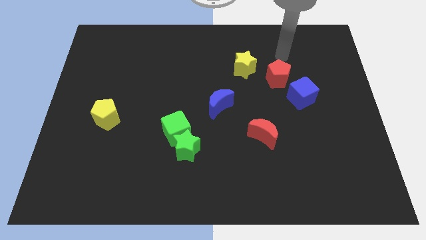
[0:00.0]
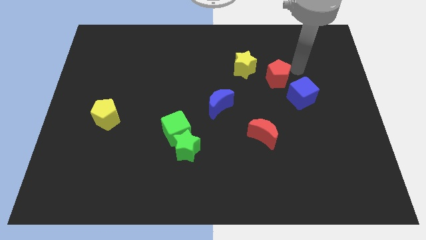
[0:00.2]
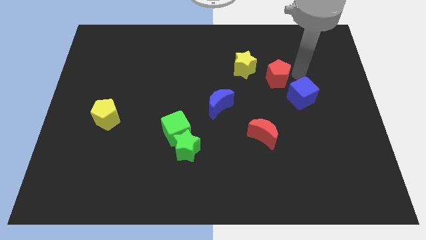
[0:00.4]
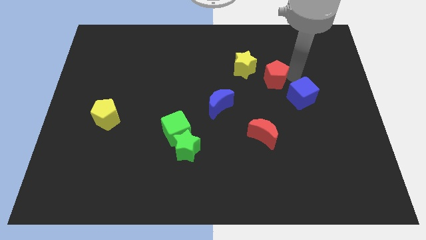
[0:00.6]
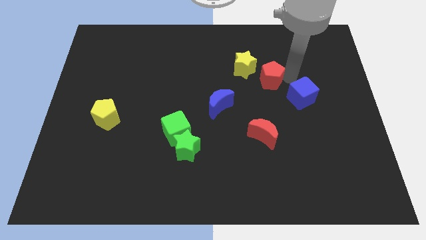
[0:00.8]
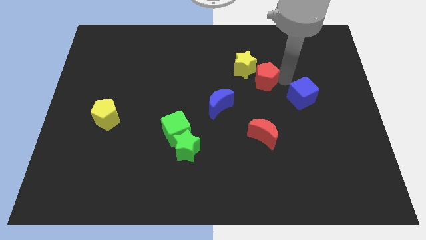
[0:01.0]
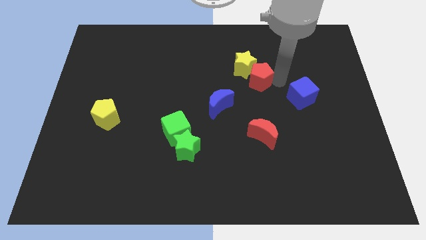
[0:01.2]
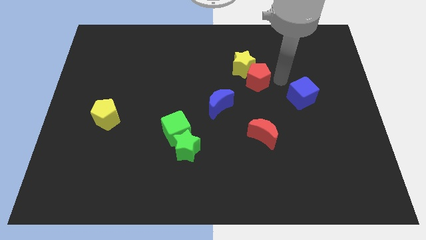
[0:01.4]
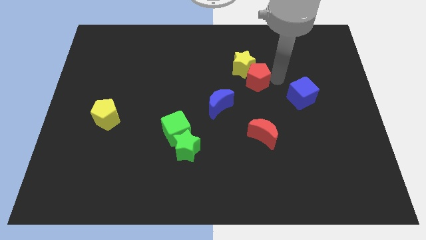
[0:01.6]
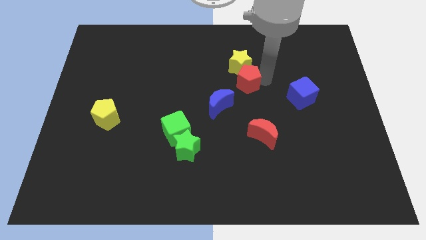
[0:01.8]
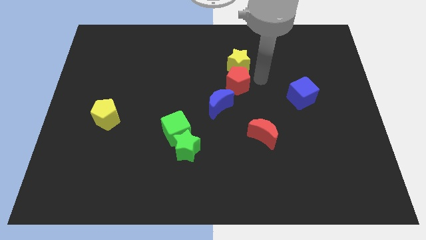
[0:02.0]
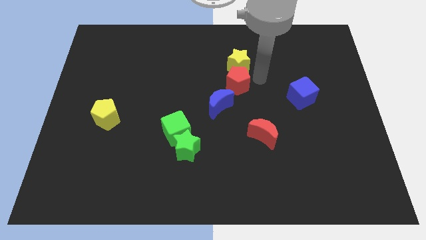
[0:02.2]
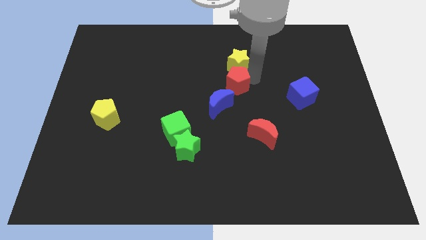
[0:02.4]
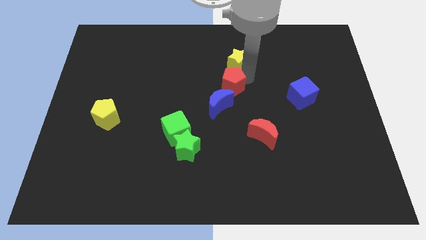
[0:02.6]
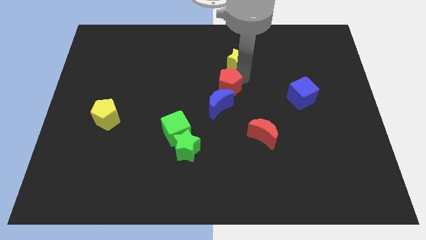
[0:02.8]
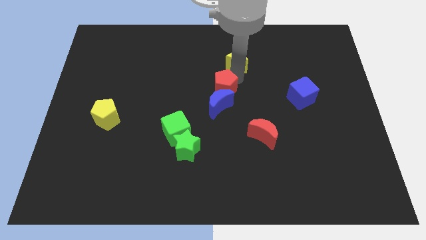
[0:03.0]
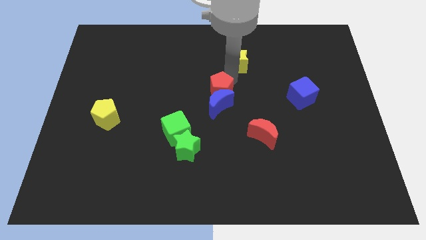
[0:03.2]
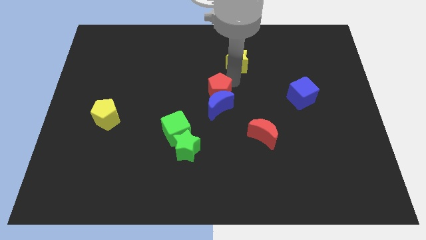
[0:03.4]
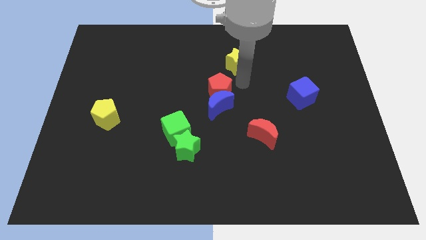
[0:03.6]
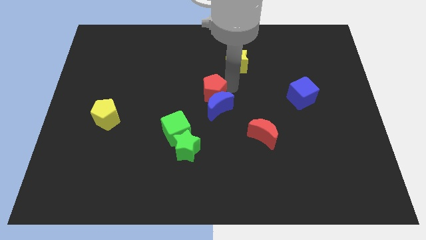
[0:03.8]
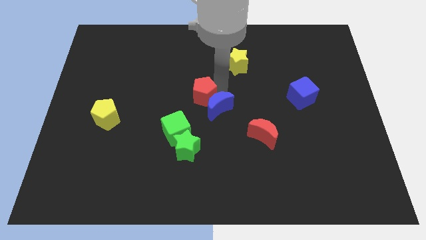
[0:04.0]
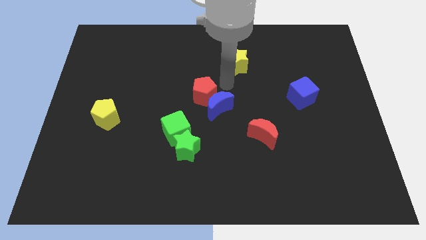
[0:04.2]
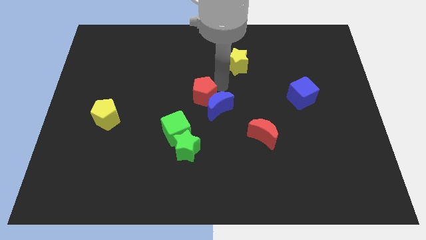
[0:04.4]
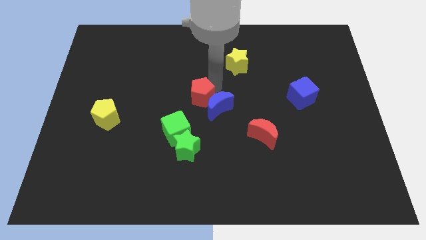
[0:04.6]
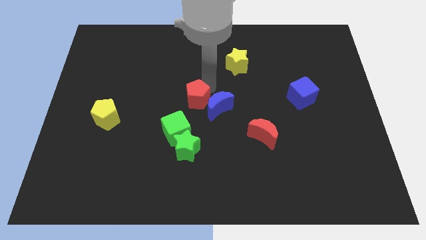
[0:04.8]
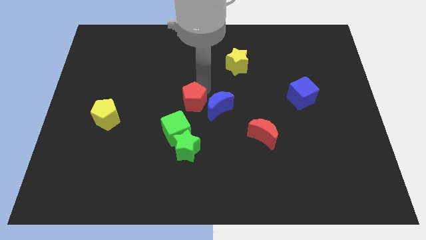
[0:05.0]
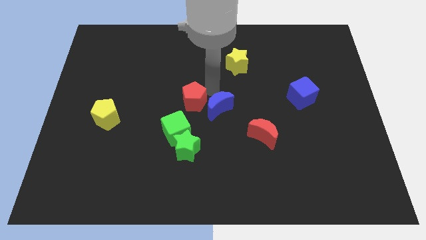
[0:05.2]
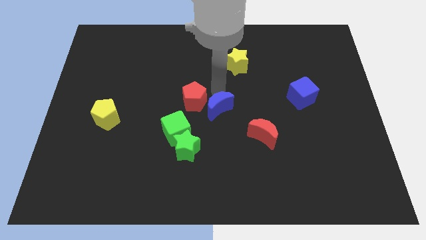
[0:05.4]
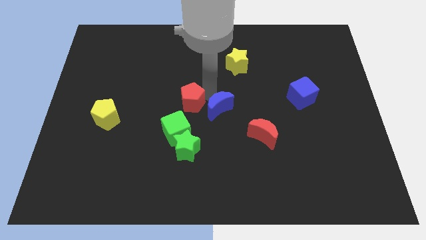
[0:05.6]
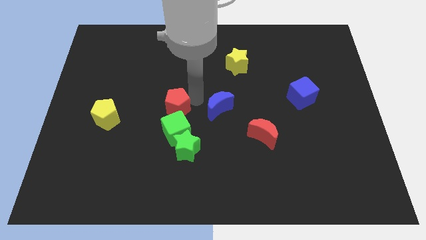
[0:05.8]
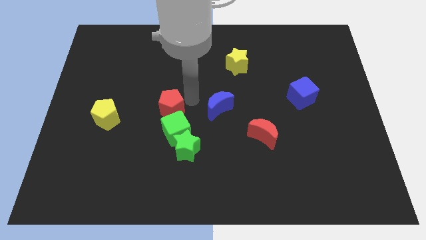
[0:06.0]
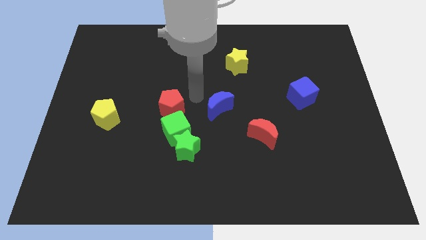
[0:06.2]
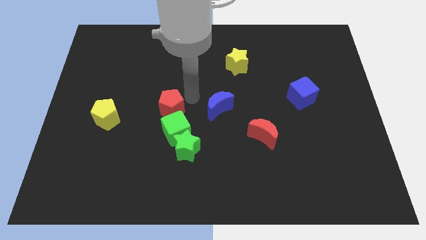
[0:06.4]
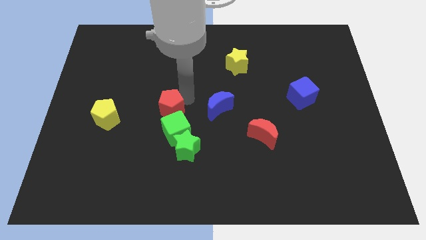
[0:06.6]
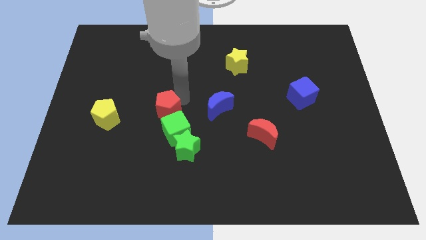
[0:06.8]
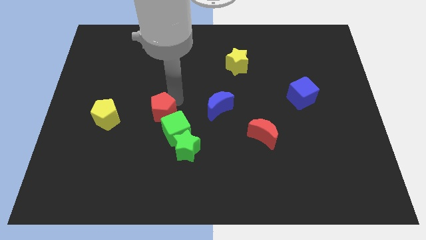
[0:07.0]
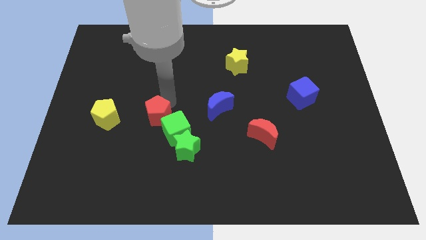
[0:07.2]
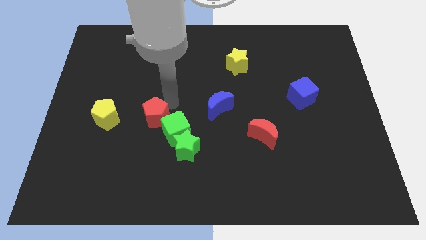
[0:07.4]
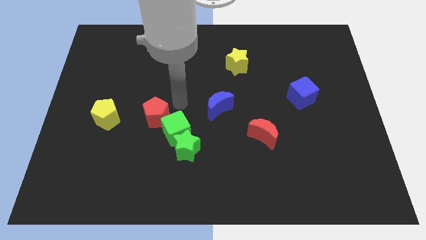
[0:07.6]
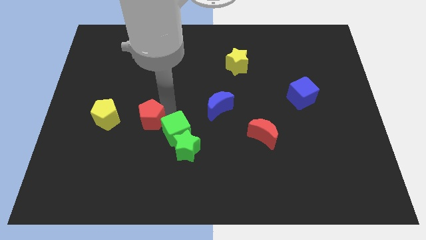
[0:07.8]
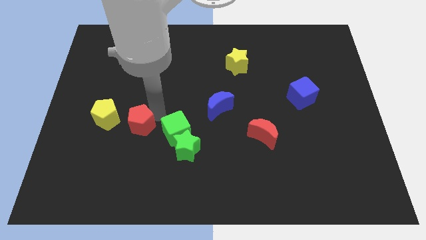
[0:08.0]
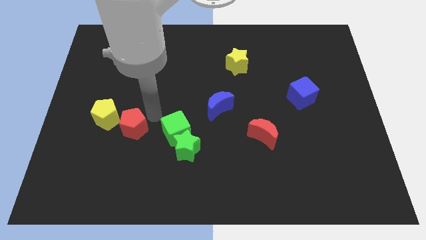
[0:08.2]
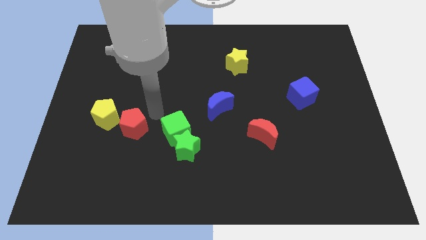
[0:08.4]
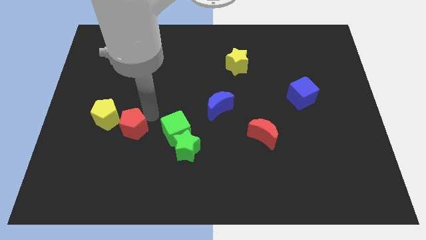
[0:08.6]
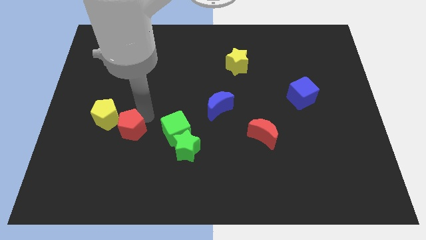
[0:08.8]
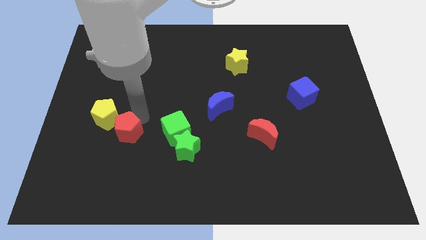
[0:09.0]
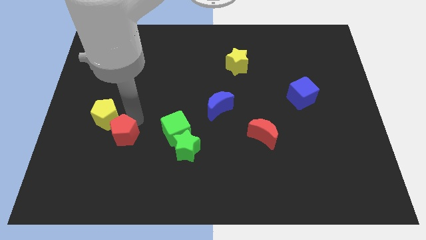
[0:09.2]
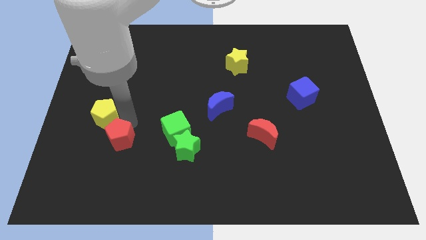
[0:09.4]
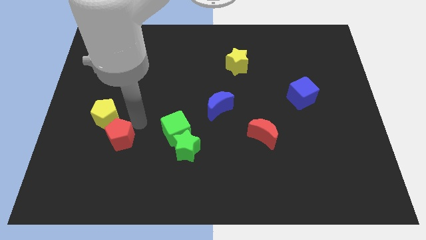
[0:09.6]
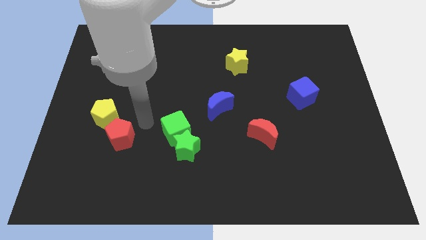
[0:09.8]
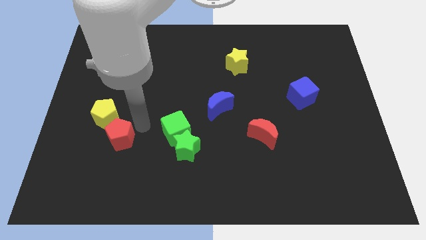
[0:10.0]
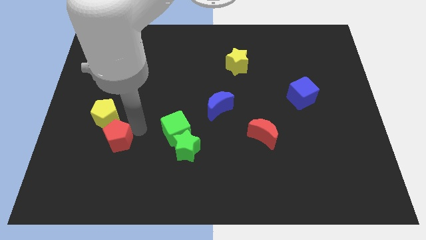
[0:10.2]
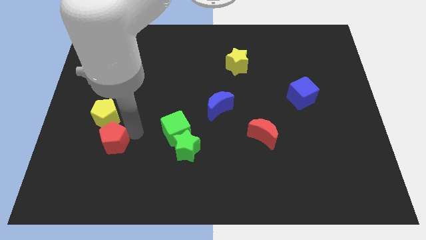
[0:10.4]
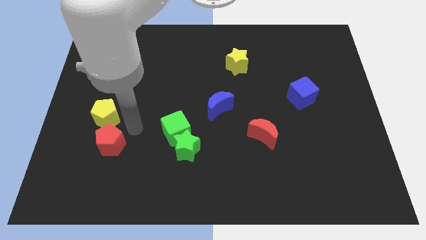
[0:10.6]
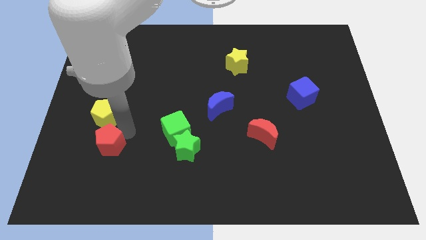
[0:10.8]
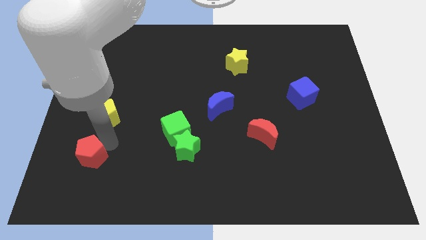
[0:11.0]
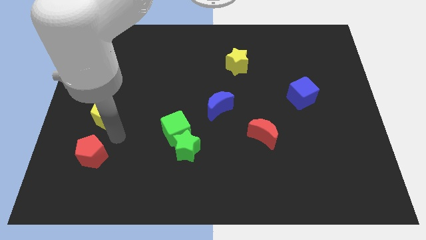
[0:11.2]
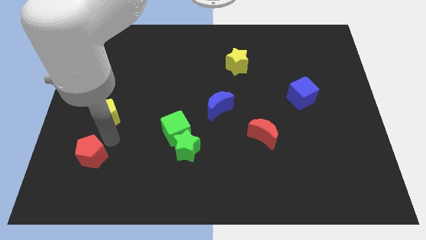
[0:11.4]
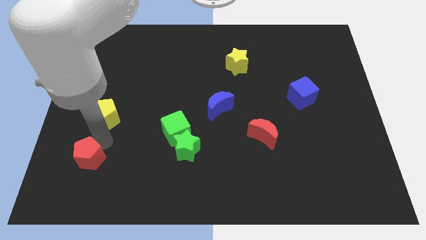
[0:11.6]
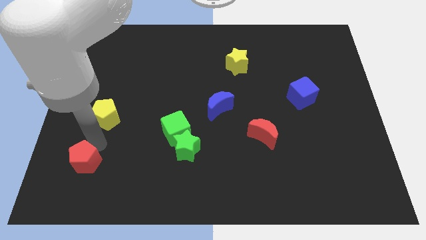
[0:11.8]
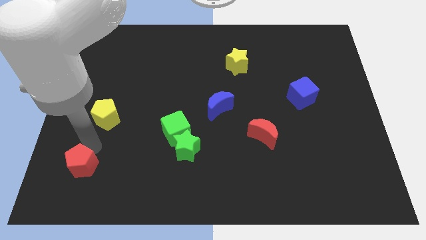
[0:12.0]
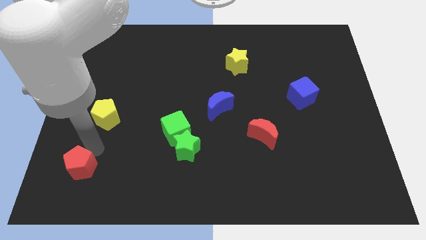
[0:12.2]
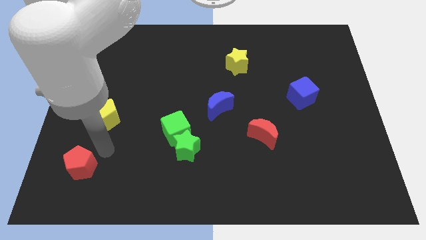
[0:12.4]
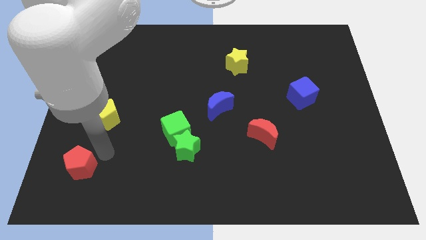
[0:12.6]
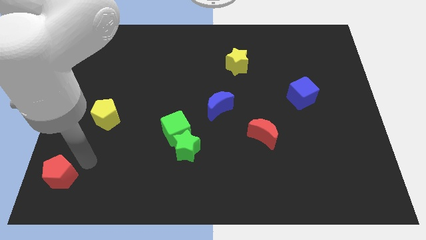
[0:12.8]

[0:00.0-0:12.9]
slide the red pentagon to the lower left corner

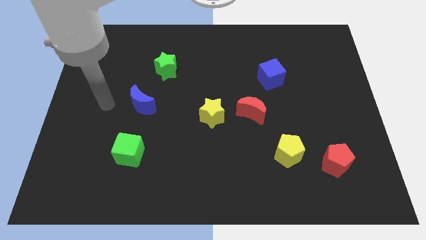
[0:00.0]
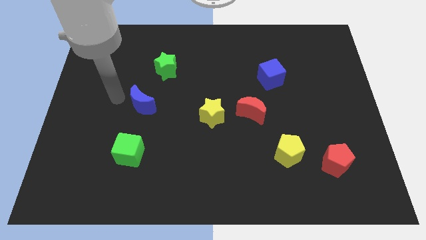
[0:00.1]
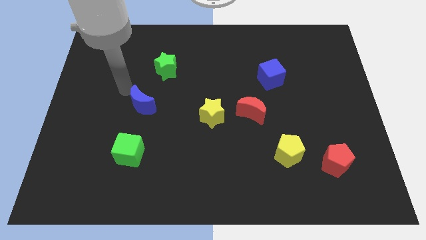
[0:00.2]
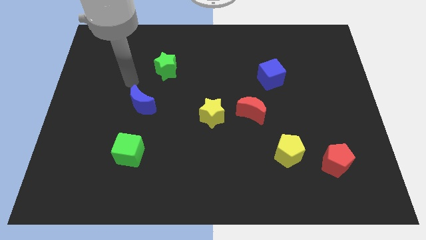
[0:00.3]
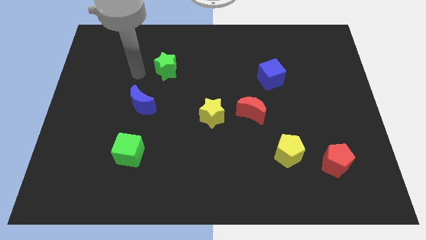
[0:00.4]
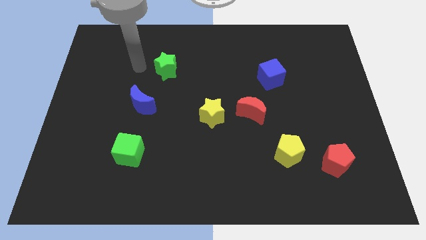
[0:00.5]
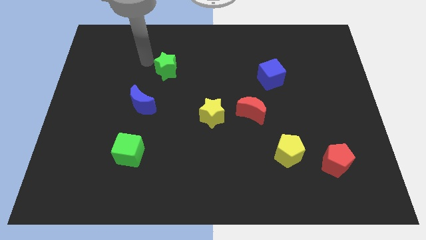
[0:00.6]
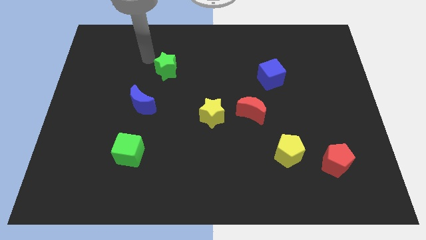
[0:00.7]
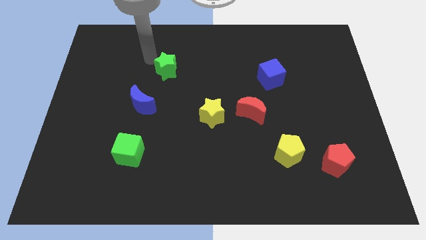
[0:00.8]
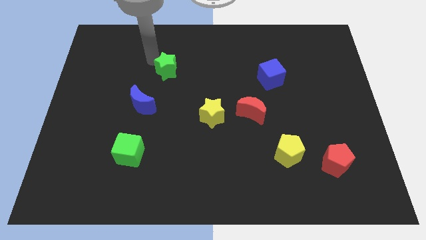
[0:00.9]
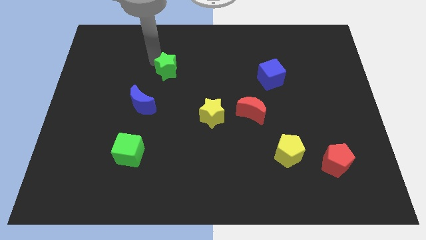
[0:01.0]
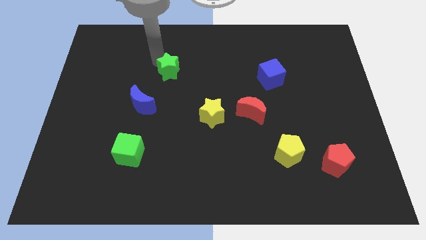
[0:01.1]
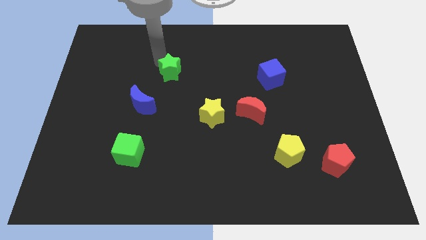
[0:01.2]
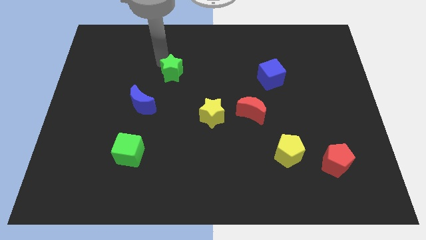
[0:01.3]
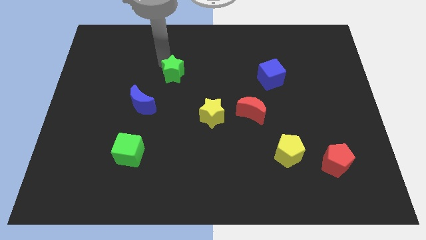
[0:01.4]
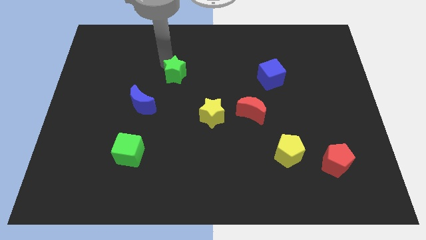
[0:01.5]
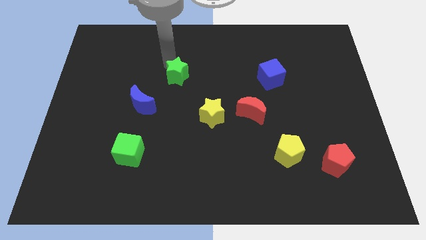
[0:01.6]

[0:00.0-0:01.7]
put the green star to the middle
